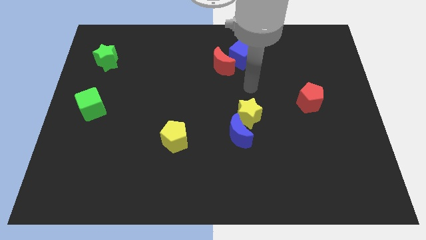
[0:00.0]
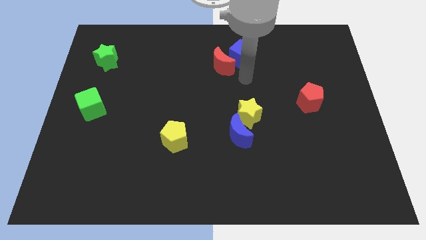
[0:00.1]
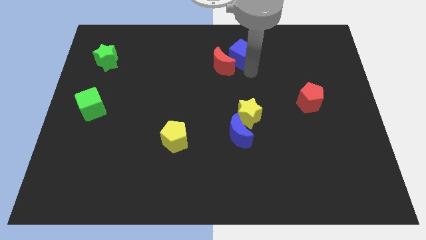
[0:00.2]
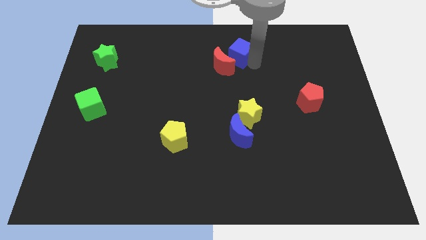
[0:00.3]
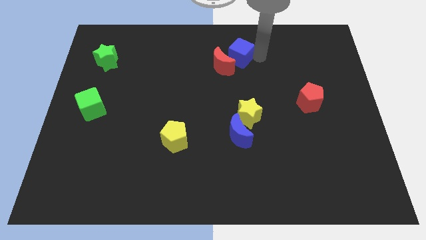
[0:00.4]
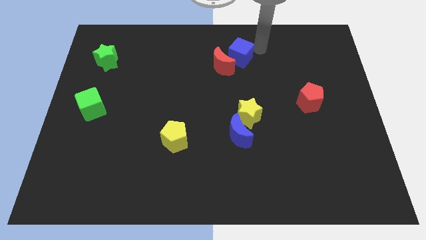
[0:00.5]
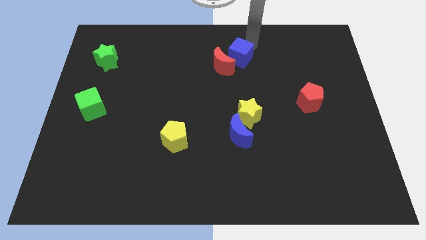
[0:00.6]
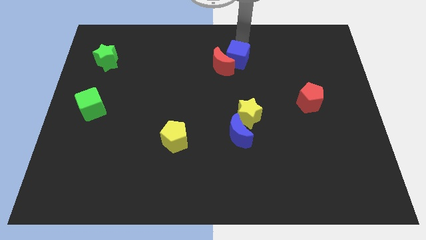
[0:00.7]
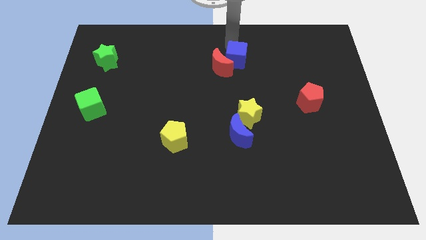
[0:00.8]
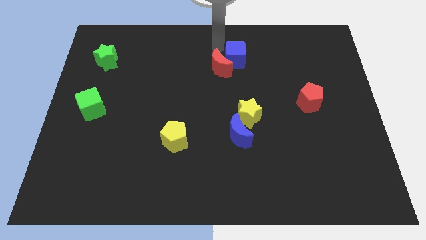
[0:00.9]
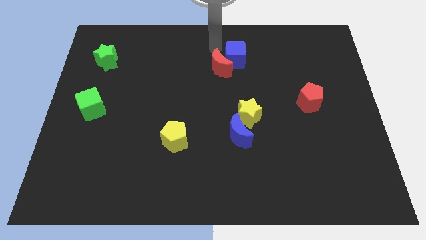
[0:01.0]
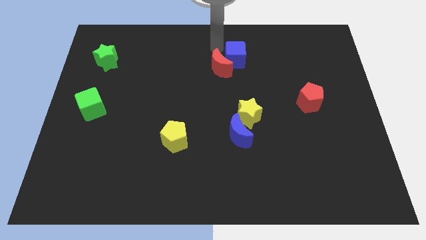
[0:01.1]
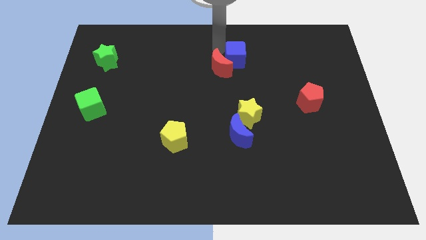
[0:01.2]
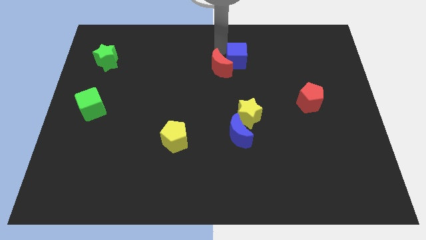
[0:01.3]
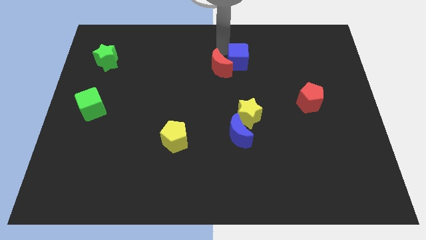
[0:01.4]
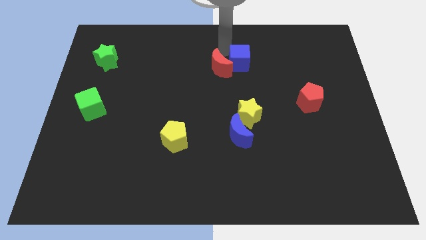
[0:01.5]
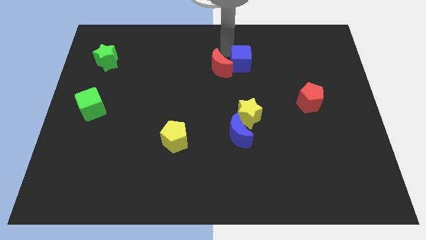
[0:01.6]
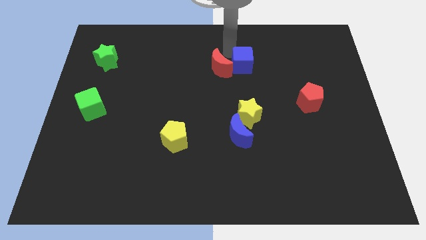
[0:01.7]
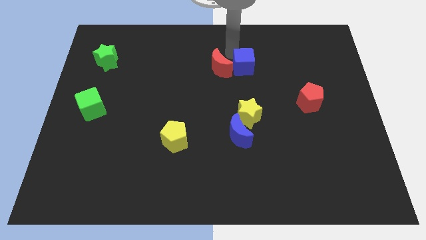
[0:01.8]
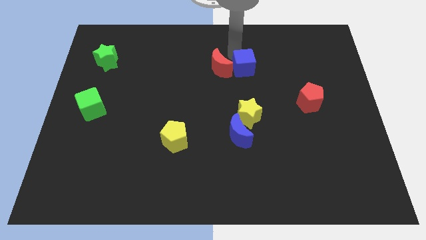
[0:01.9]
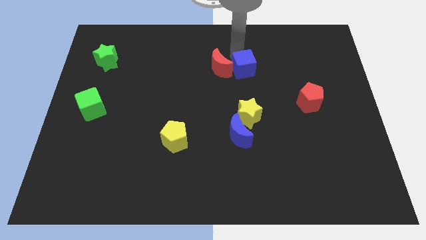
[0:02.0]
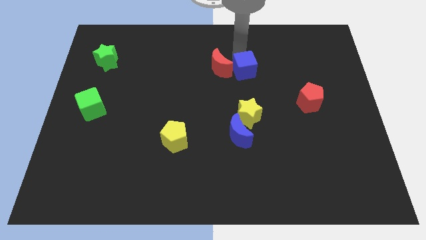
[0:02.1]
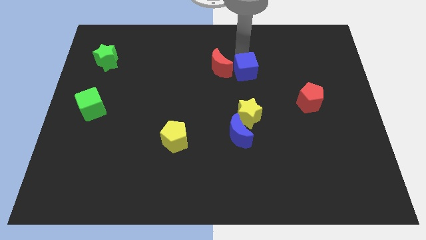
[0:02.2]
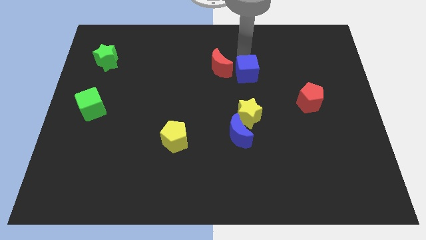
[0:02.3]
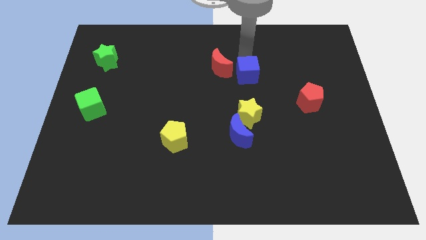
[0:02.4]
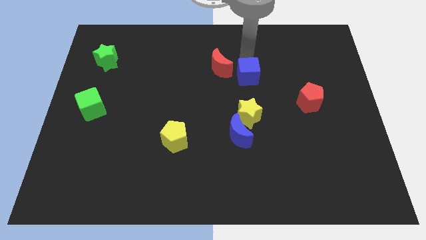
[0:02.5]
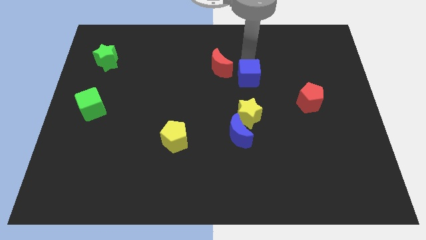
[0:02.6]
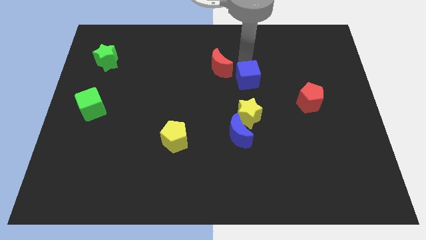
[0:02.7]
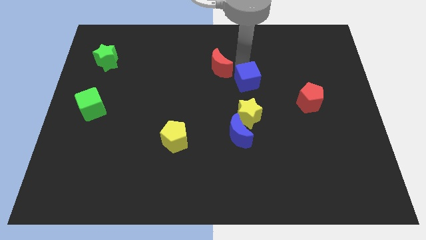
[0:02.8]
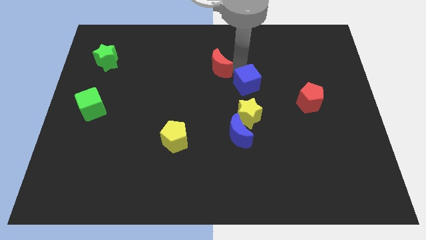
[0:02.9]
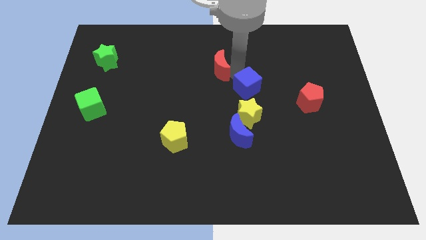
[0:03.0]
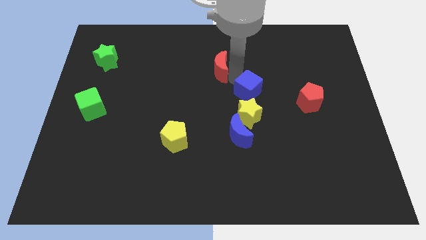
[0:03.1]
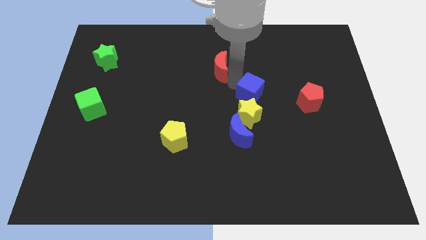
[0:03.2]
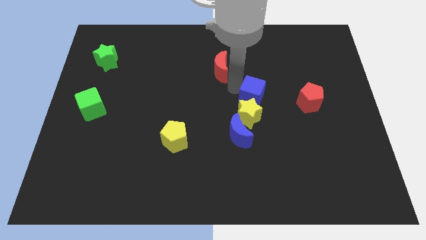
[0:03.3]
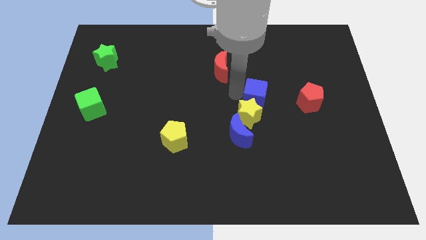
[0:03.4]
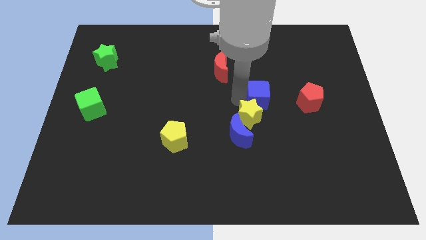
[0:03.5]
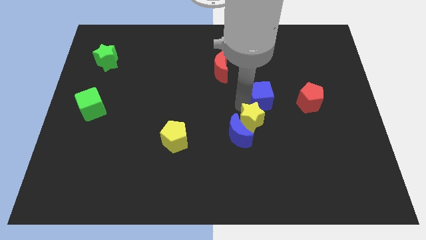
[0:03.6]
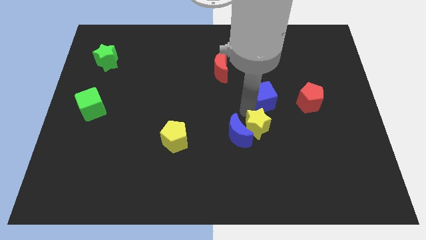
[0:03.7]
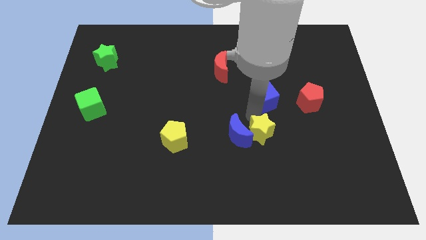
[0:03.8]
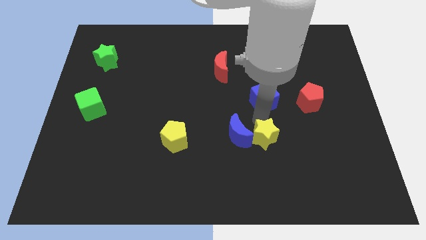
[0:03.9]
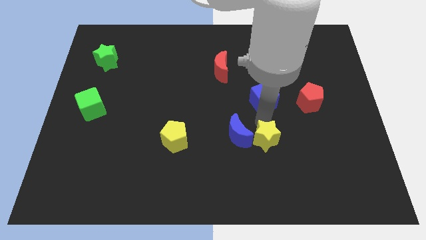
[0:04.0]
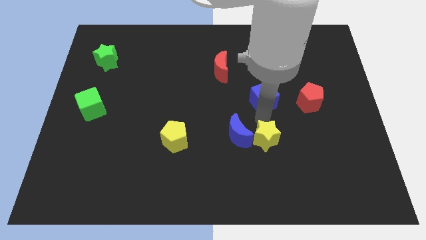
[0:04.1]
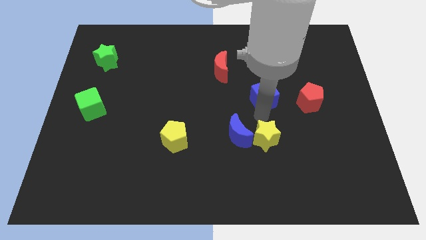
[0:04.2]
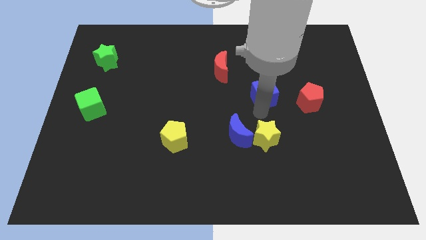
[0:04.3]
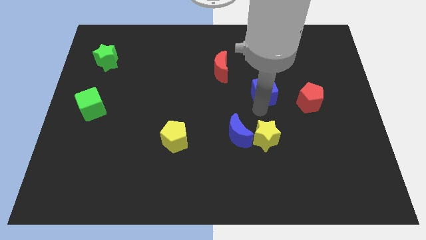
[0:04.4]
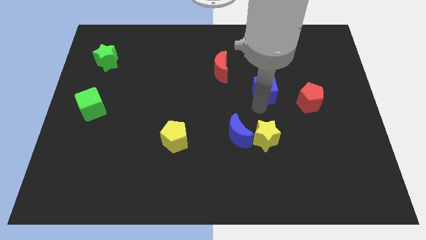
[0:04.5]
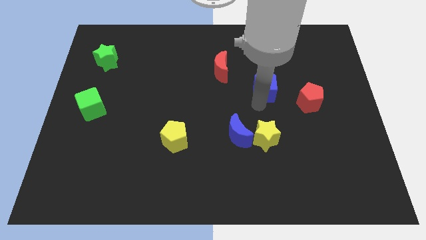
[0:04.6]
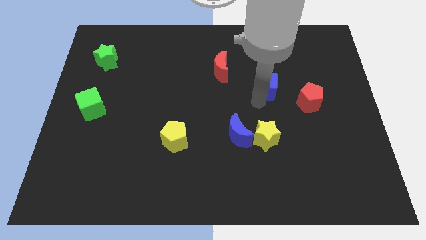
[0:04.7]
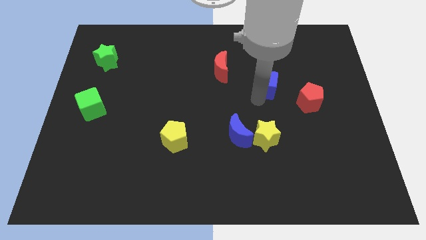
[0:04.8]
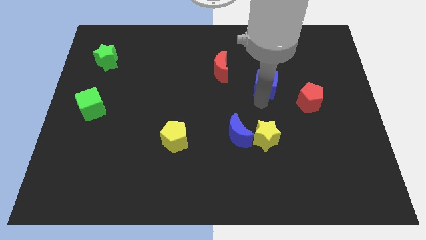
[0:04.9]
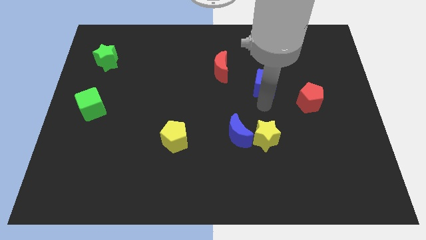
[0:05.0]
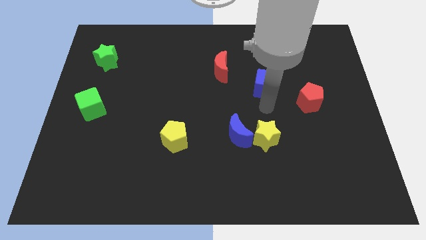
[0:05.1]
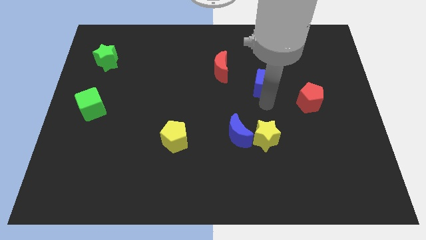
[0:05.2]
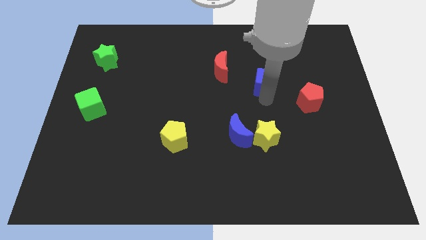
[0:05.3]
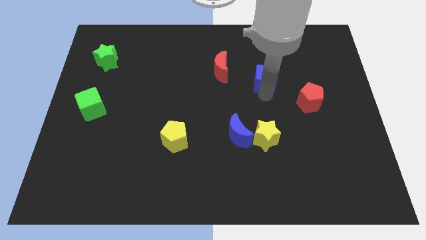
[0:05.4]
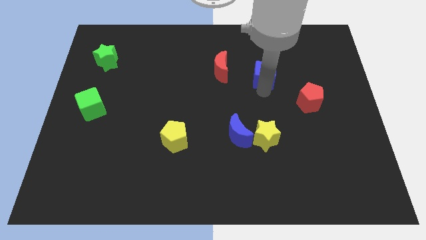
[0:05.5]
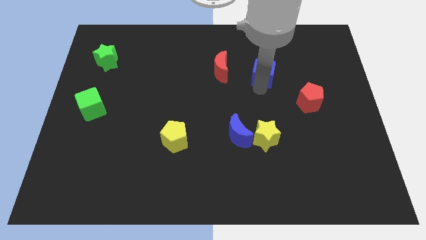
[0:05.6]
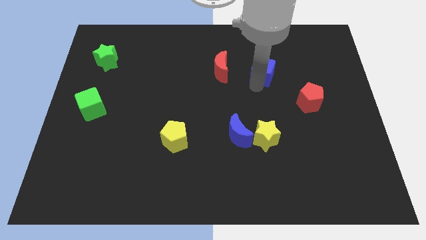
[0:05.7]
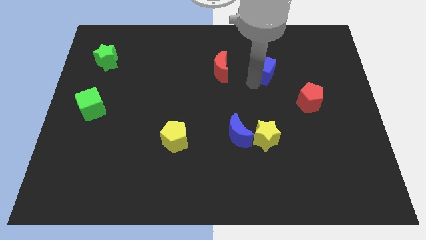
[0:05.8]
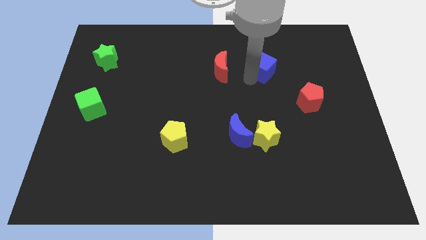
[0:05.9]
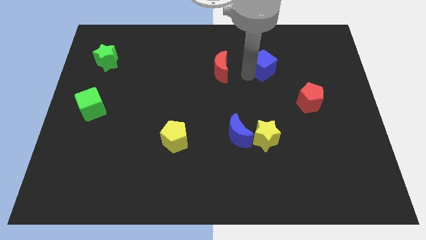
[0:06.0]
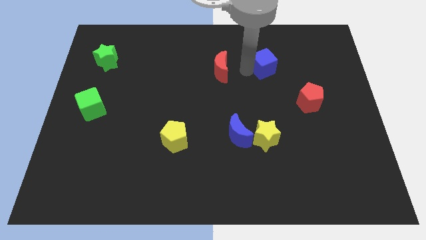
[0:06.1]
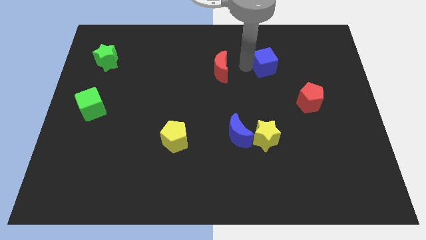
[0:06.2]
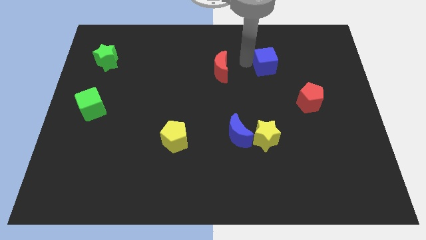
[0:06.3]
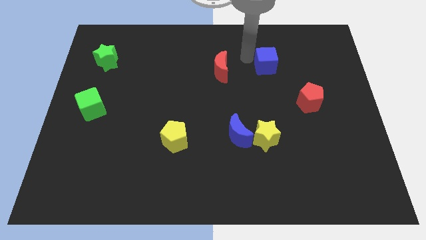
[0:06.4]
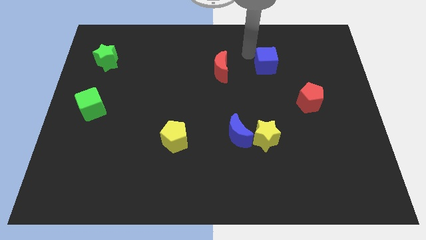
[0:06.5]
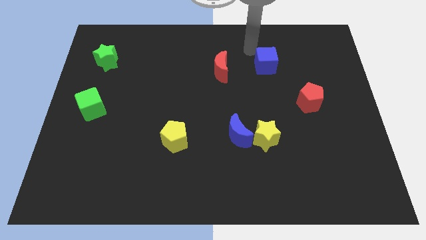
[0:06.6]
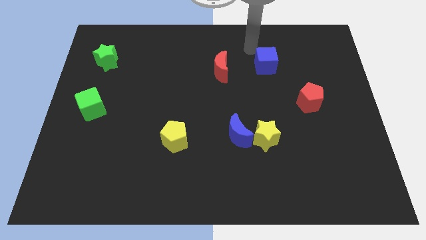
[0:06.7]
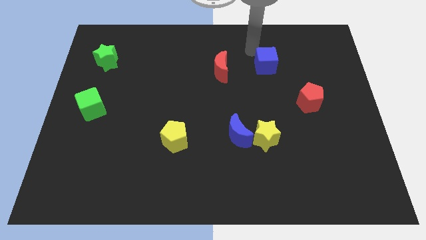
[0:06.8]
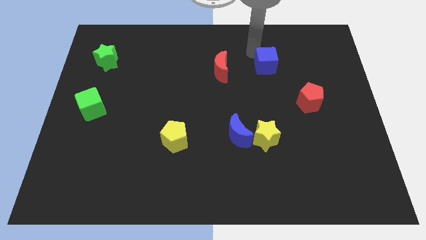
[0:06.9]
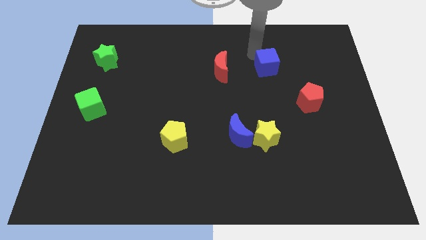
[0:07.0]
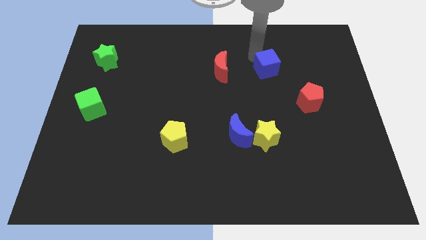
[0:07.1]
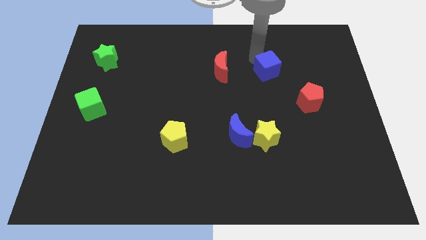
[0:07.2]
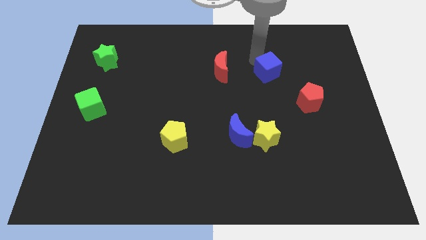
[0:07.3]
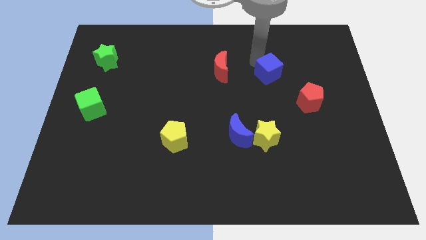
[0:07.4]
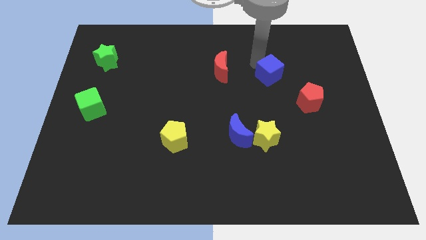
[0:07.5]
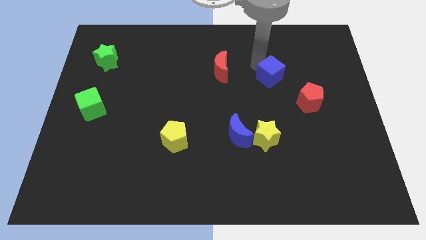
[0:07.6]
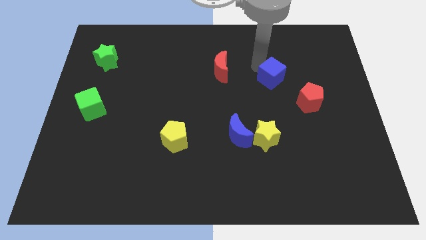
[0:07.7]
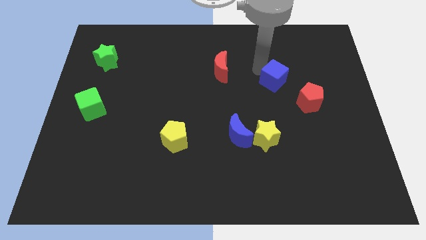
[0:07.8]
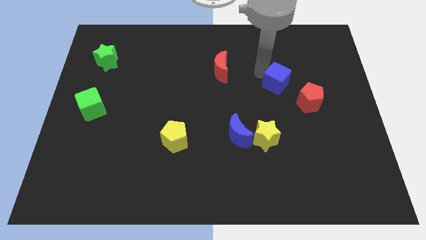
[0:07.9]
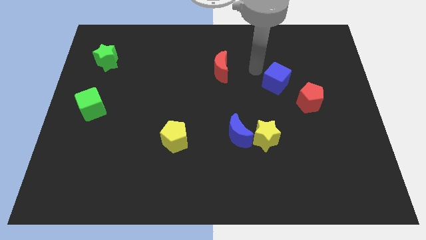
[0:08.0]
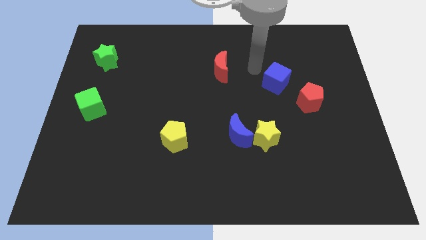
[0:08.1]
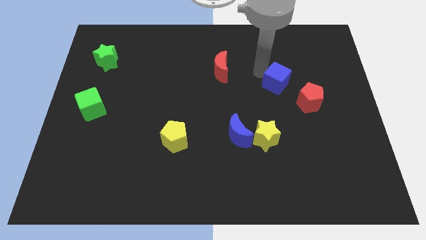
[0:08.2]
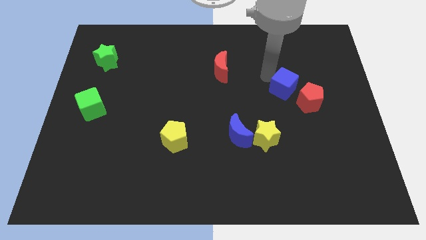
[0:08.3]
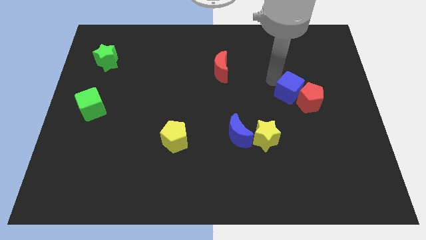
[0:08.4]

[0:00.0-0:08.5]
slide the blue cube to the red pentagon
